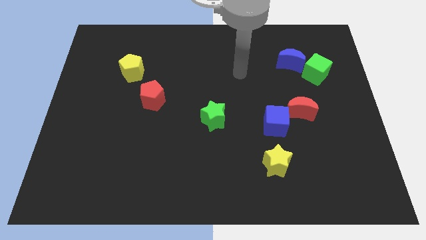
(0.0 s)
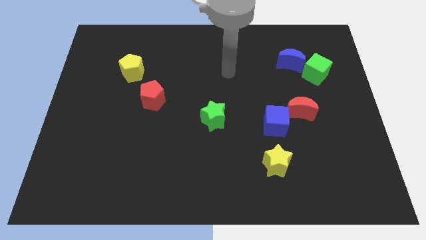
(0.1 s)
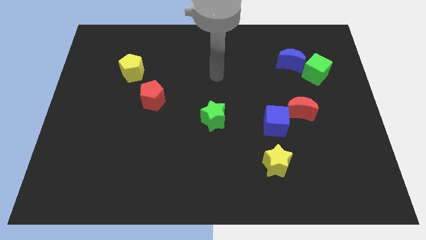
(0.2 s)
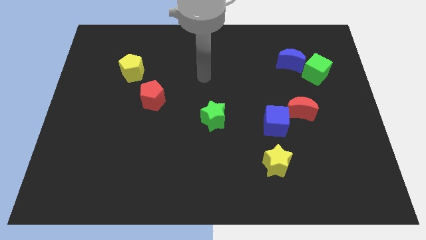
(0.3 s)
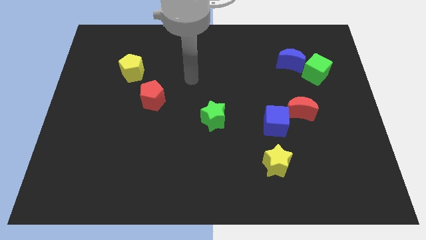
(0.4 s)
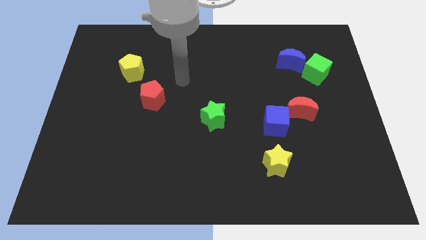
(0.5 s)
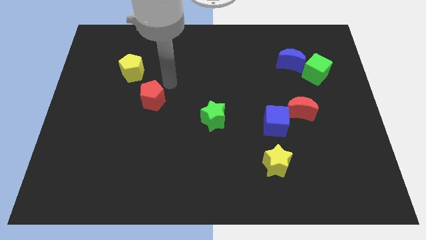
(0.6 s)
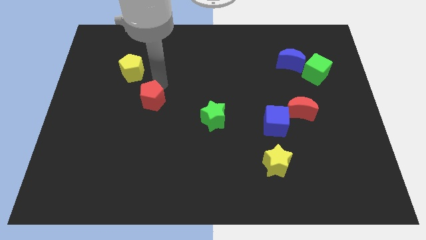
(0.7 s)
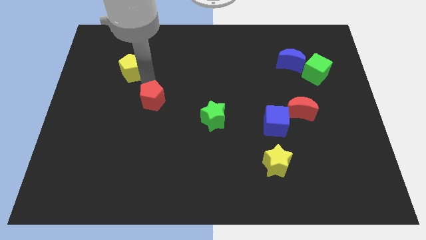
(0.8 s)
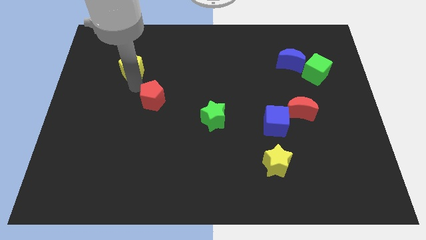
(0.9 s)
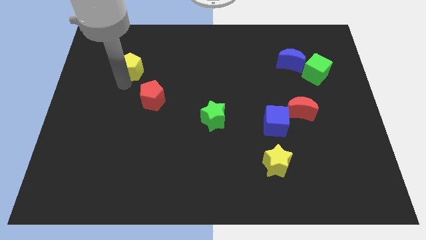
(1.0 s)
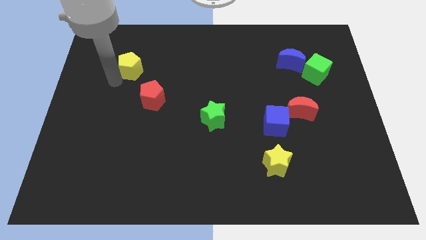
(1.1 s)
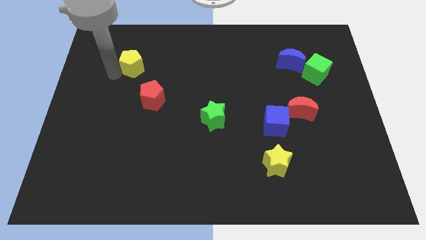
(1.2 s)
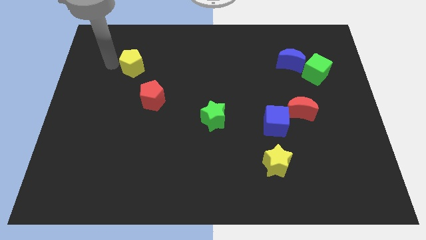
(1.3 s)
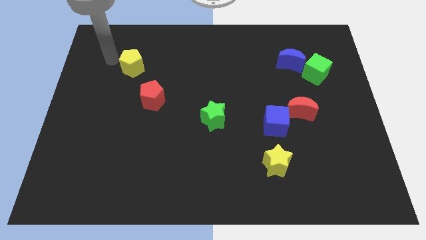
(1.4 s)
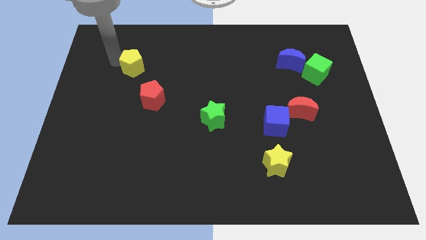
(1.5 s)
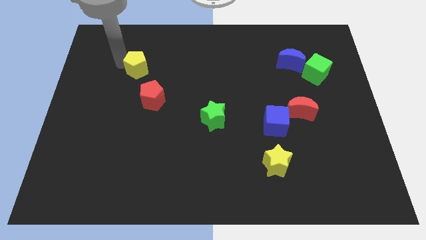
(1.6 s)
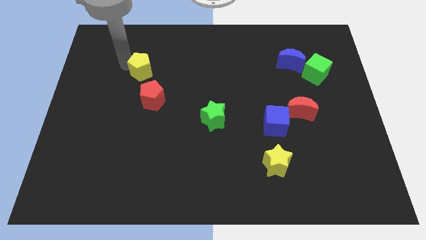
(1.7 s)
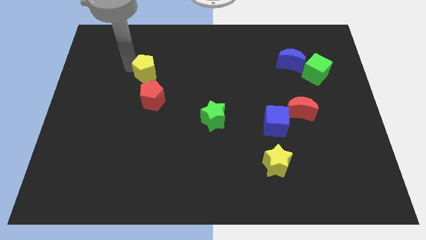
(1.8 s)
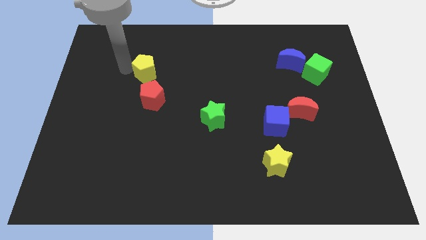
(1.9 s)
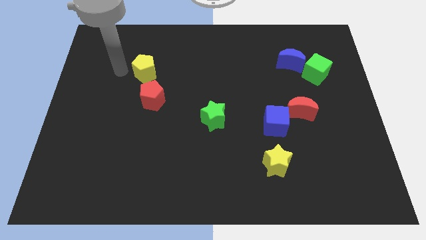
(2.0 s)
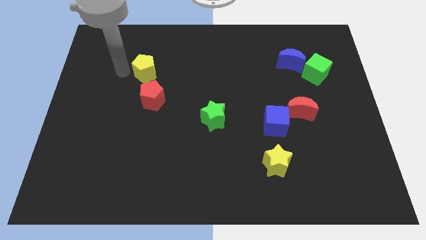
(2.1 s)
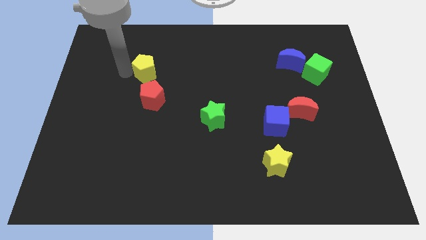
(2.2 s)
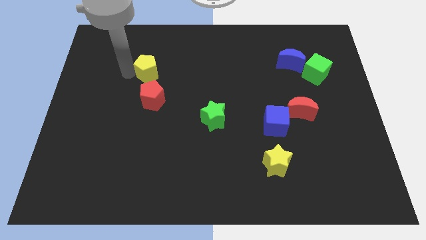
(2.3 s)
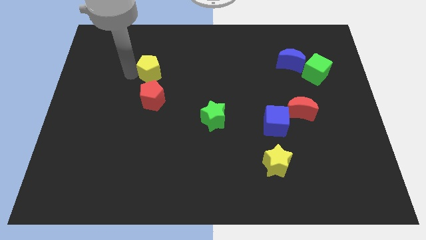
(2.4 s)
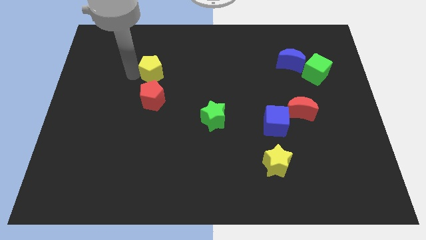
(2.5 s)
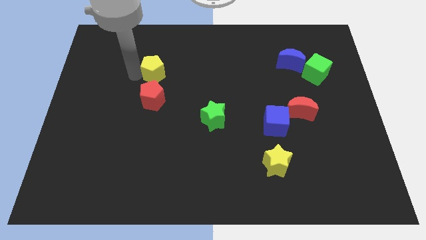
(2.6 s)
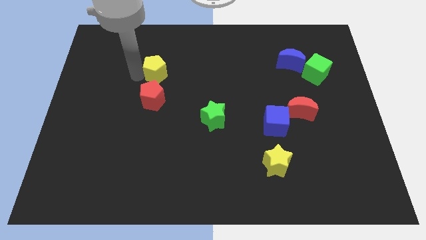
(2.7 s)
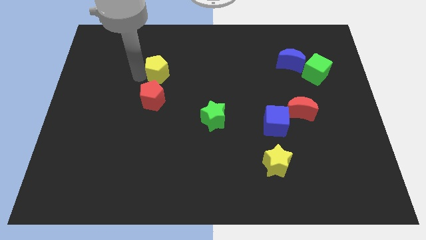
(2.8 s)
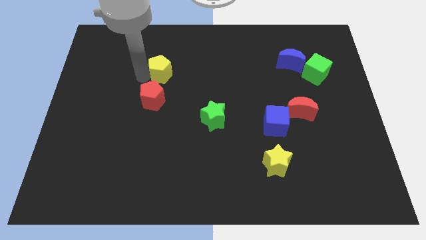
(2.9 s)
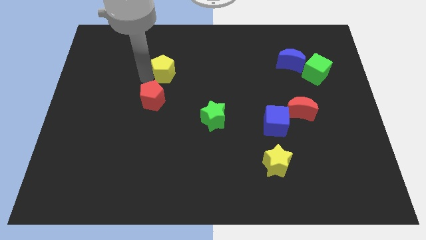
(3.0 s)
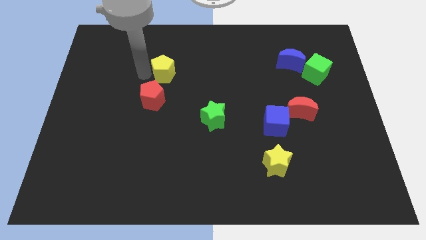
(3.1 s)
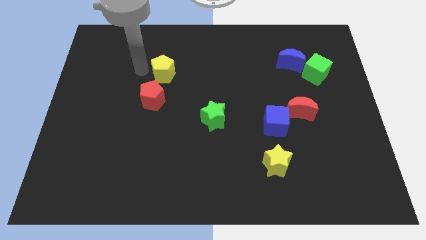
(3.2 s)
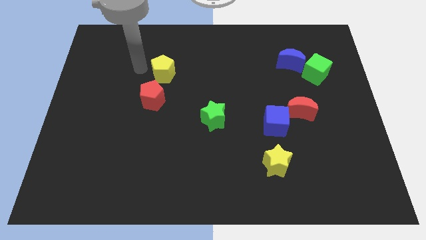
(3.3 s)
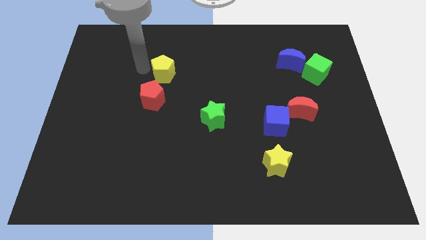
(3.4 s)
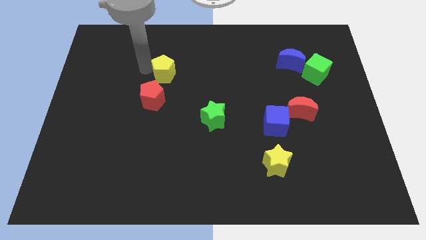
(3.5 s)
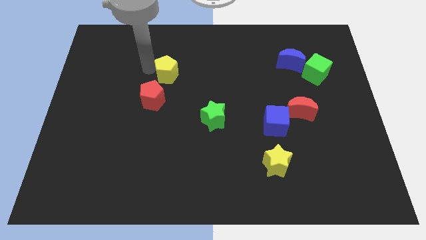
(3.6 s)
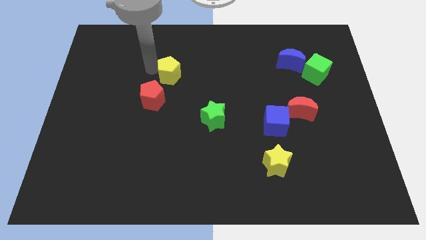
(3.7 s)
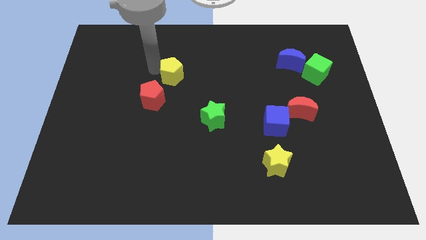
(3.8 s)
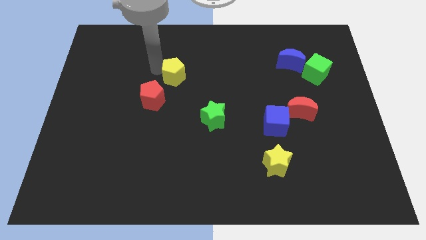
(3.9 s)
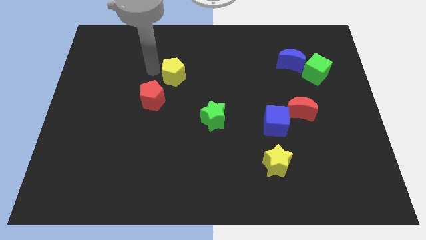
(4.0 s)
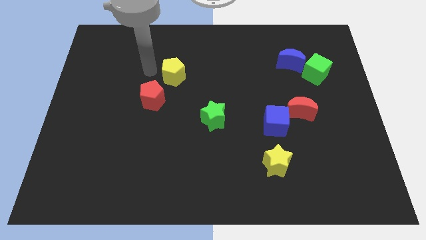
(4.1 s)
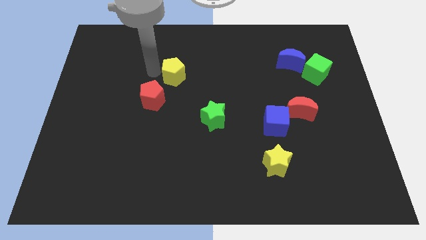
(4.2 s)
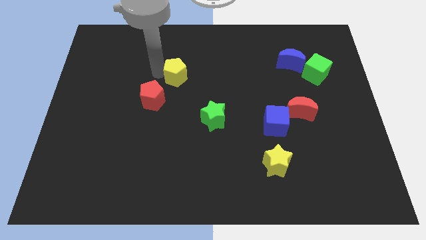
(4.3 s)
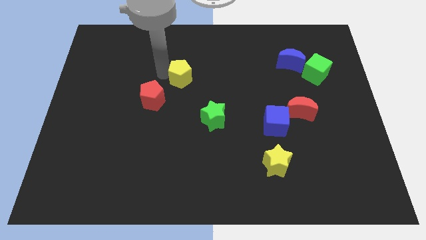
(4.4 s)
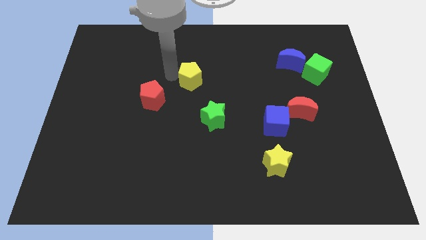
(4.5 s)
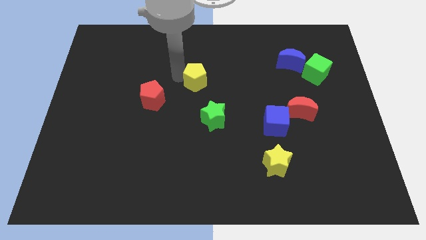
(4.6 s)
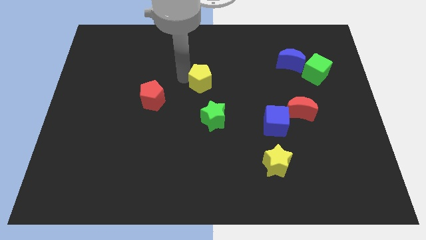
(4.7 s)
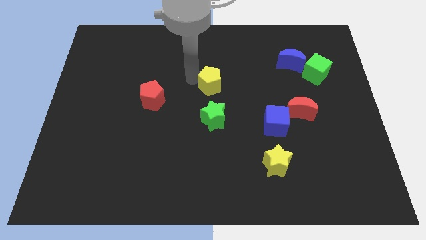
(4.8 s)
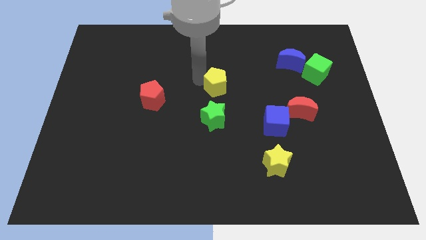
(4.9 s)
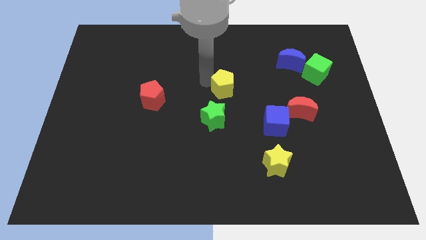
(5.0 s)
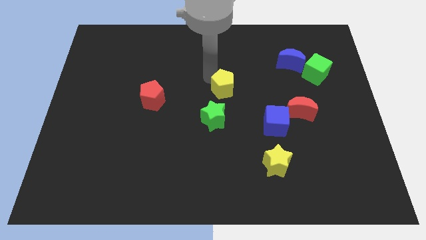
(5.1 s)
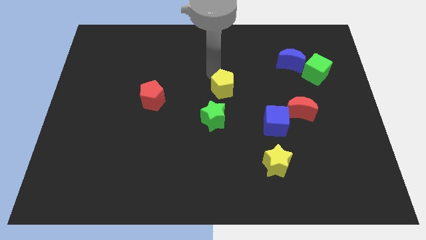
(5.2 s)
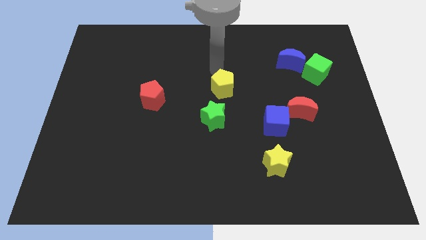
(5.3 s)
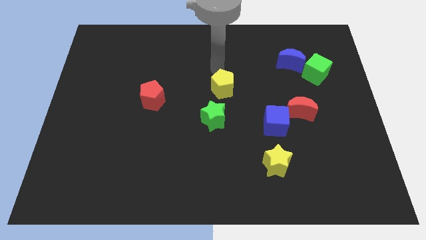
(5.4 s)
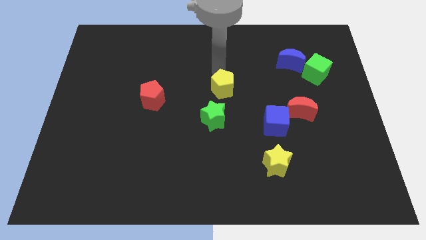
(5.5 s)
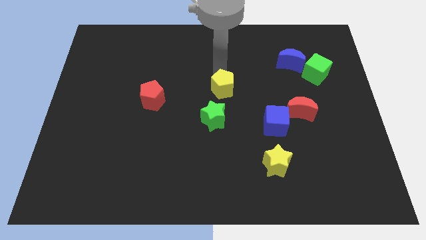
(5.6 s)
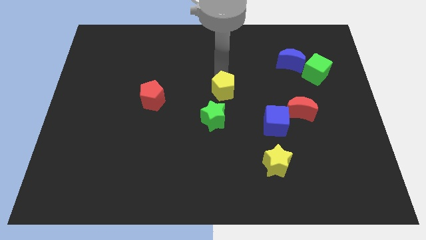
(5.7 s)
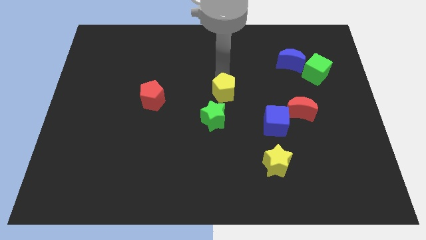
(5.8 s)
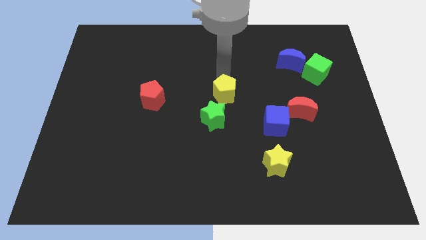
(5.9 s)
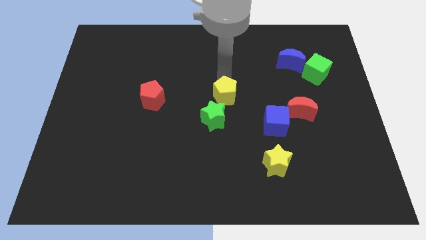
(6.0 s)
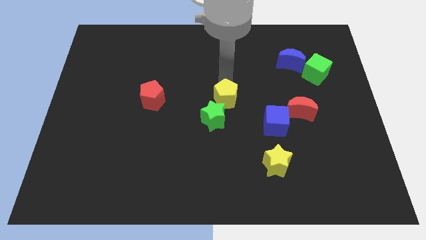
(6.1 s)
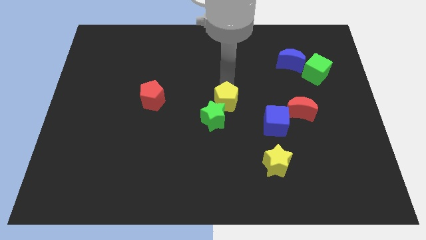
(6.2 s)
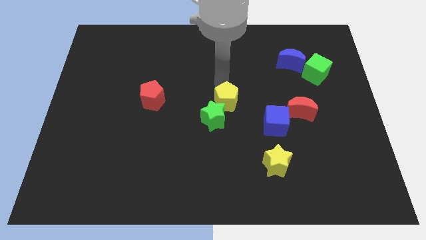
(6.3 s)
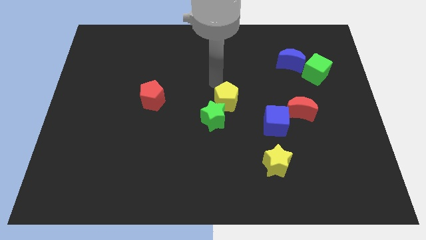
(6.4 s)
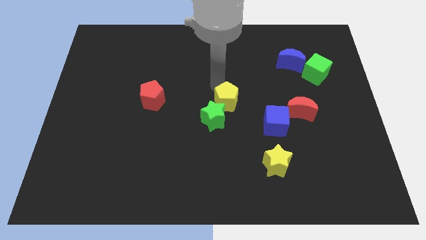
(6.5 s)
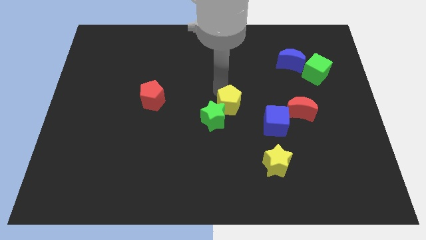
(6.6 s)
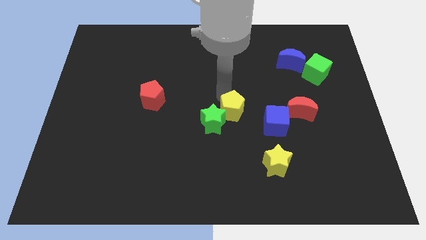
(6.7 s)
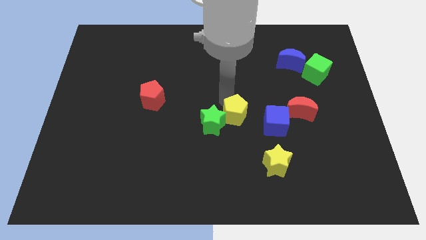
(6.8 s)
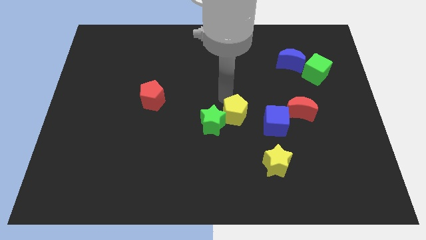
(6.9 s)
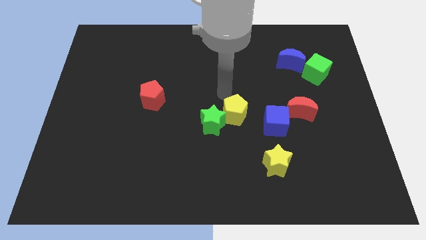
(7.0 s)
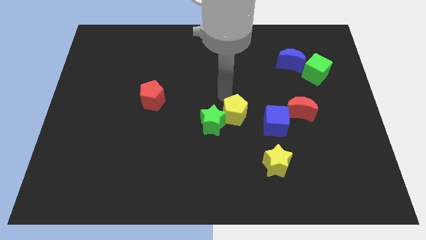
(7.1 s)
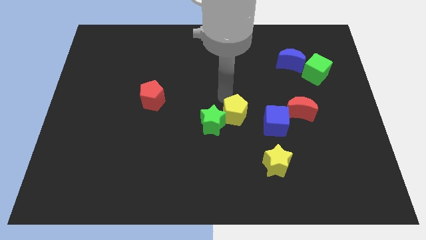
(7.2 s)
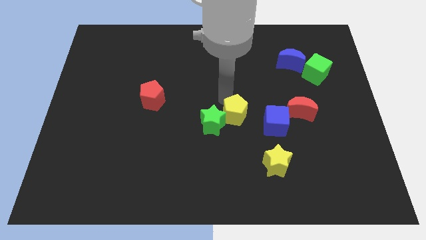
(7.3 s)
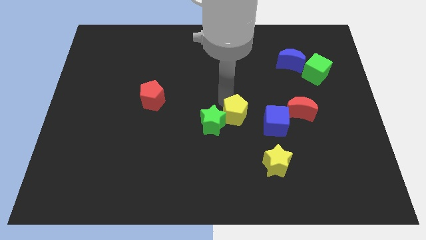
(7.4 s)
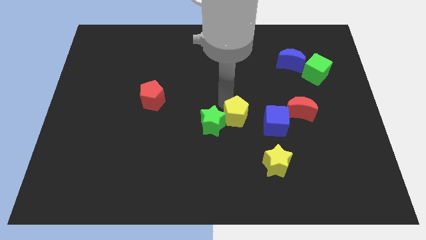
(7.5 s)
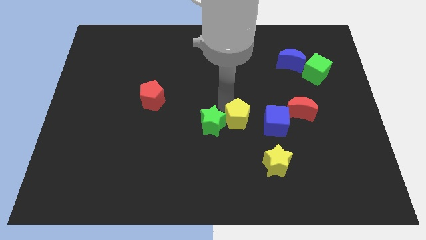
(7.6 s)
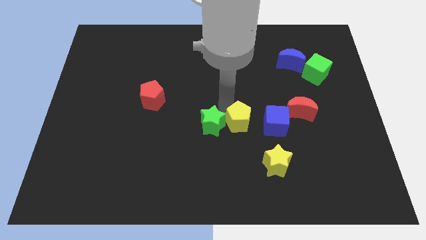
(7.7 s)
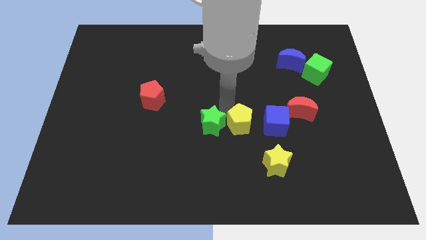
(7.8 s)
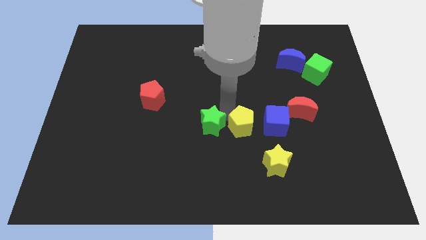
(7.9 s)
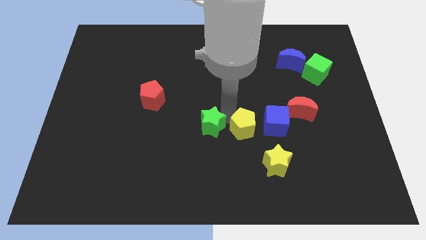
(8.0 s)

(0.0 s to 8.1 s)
slide the yellow pentagon diagonally down and to the left of the blue cube
